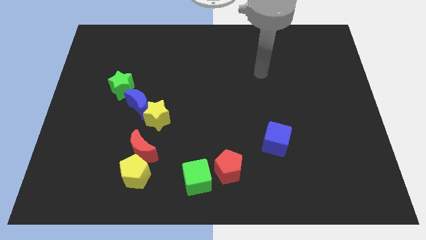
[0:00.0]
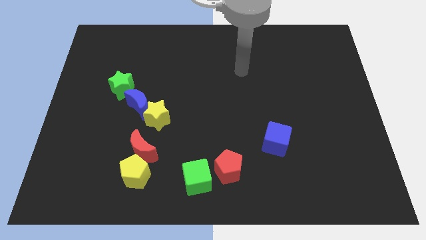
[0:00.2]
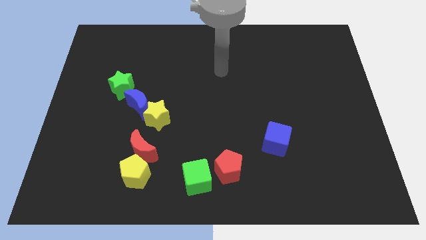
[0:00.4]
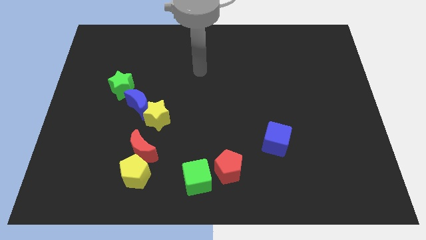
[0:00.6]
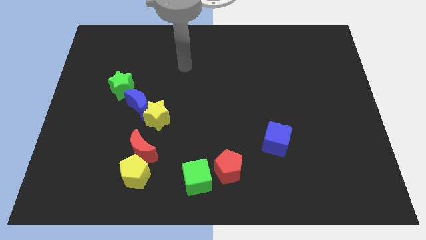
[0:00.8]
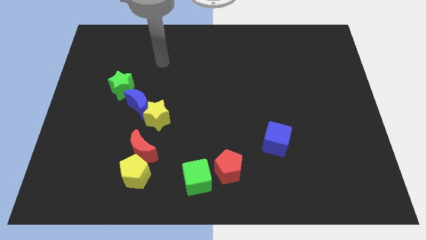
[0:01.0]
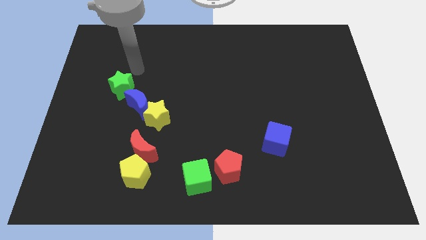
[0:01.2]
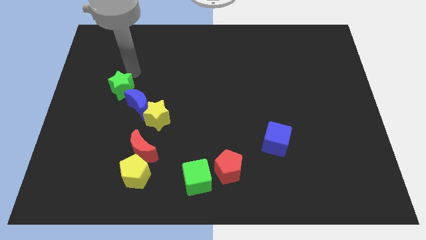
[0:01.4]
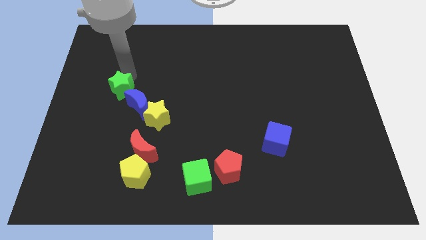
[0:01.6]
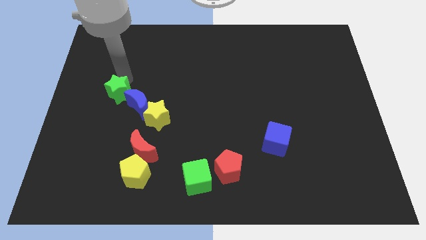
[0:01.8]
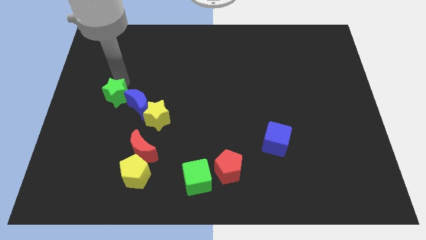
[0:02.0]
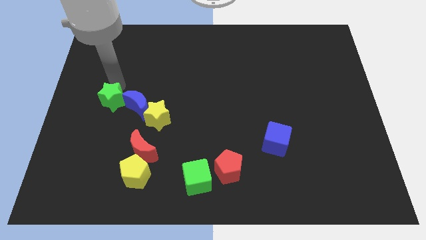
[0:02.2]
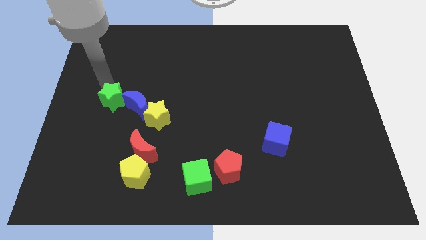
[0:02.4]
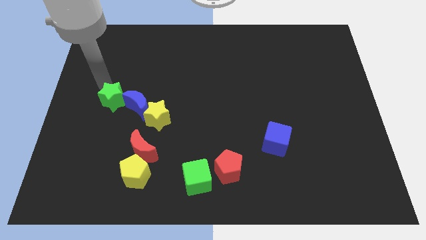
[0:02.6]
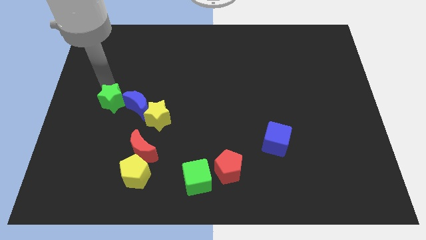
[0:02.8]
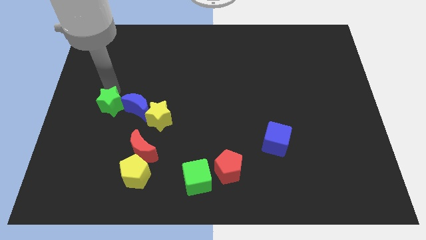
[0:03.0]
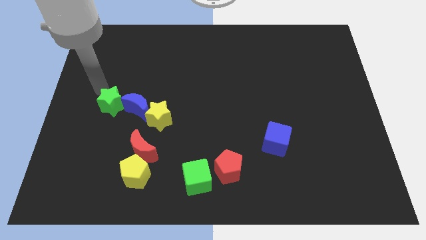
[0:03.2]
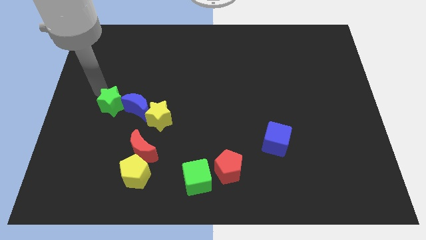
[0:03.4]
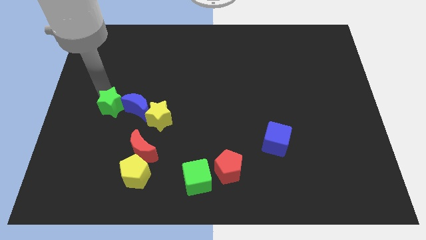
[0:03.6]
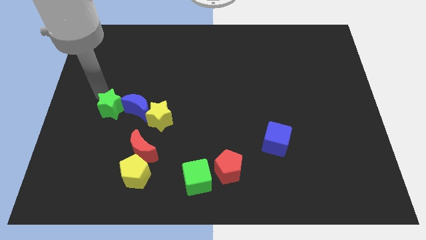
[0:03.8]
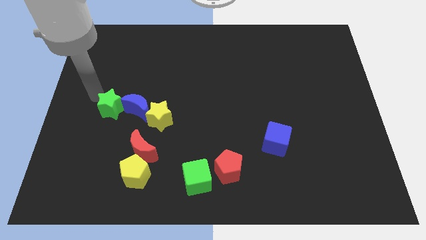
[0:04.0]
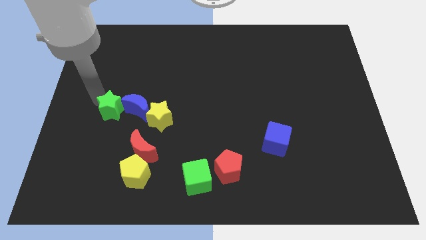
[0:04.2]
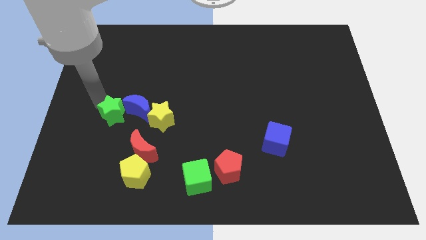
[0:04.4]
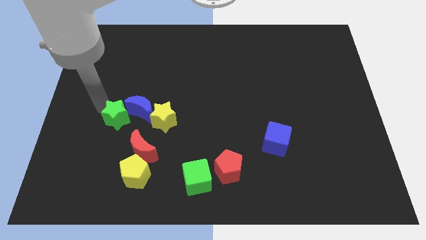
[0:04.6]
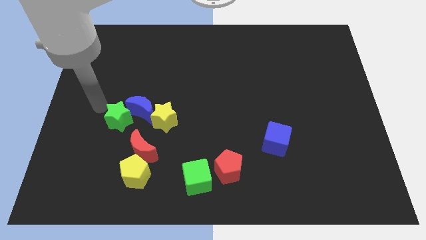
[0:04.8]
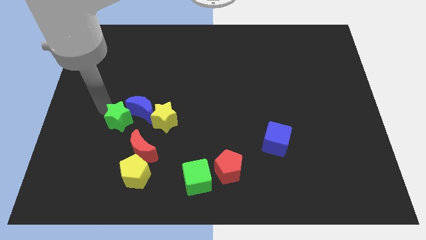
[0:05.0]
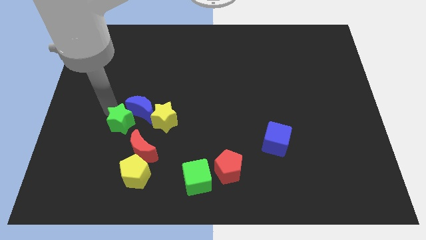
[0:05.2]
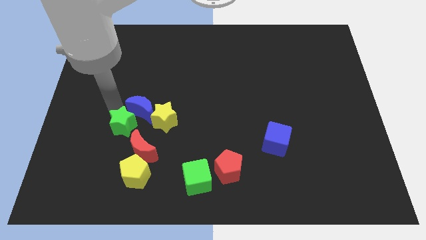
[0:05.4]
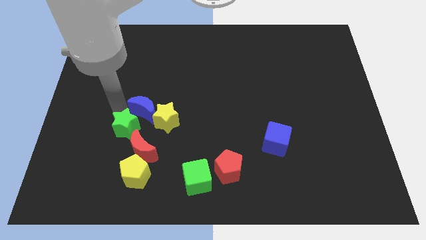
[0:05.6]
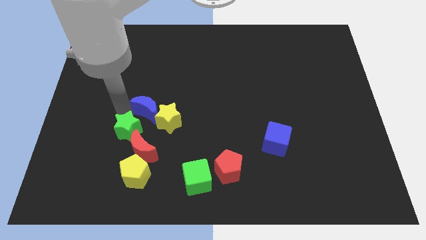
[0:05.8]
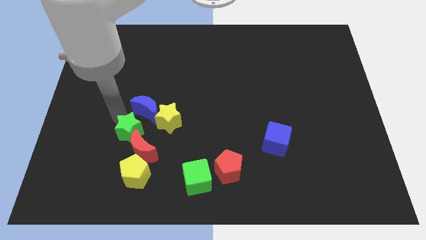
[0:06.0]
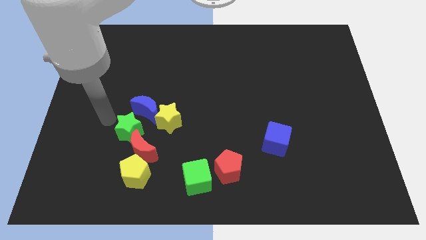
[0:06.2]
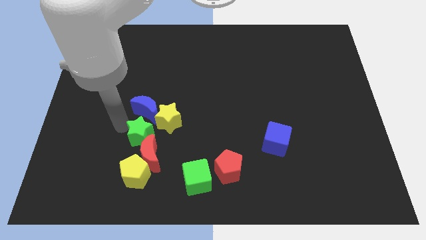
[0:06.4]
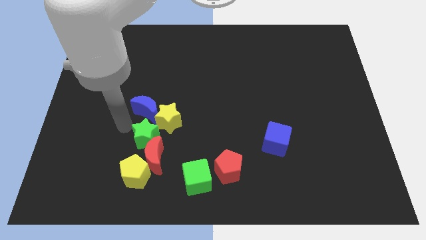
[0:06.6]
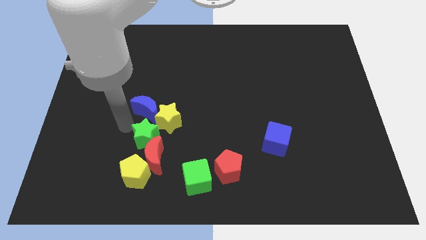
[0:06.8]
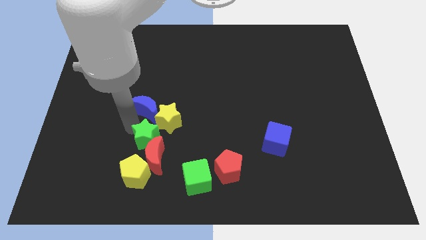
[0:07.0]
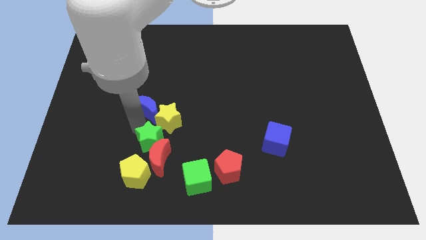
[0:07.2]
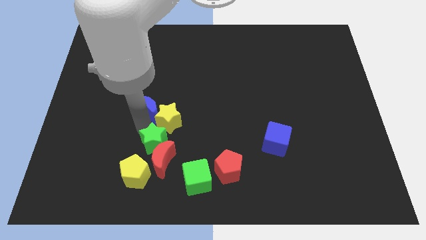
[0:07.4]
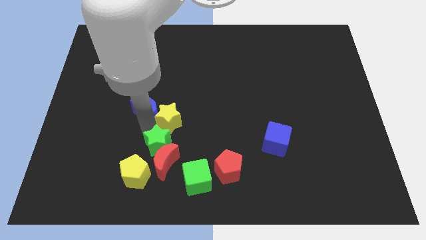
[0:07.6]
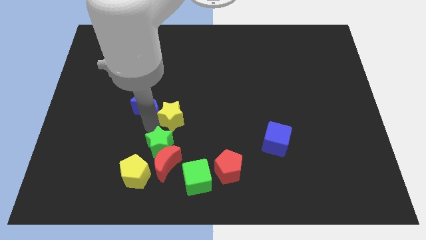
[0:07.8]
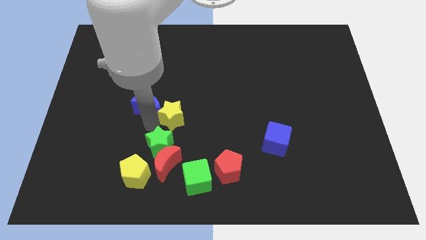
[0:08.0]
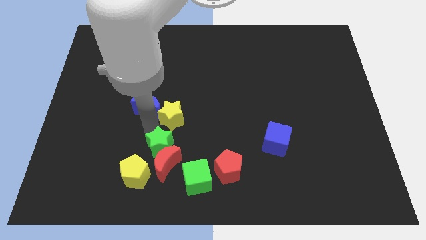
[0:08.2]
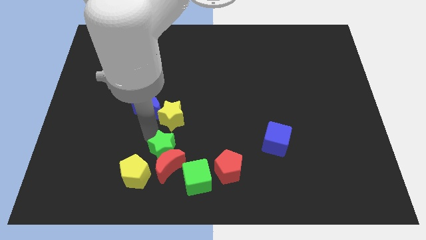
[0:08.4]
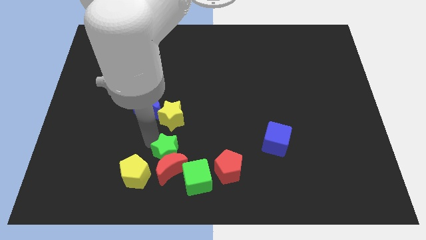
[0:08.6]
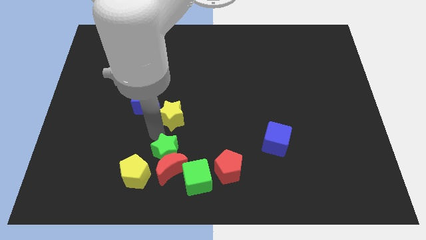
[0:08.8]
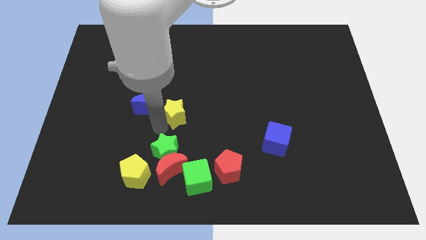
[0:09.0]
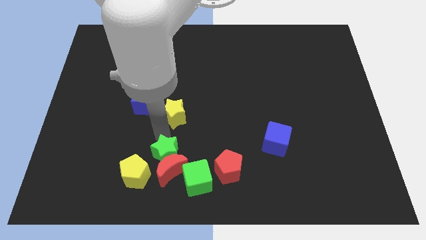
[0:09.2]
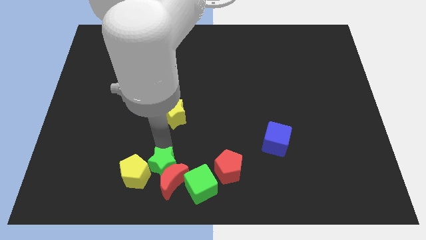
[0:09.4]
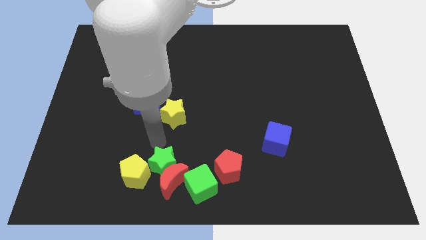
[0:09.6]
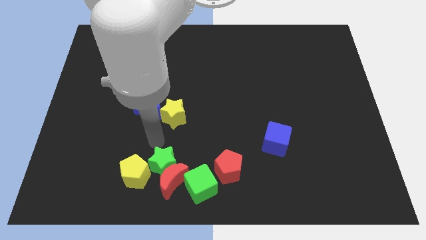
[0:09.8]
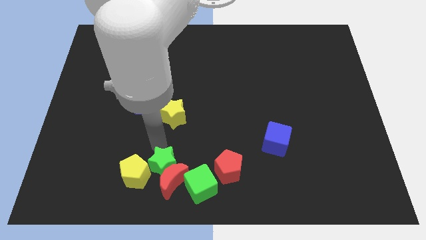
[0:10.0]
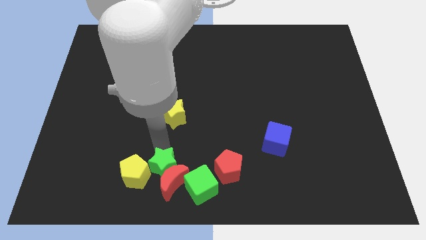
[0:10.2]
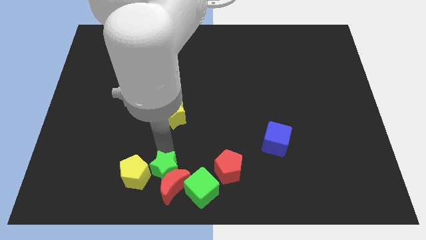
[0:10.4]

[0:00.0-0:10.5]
put the green star to the bottom

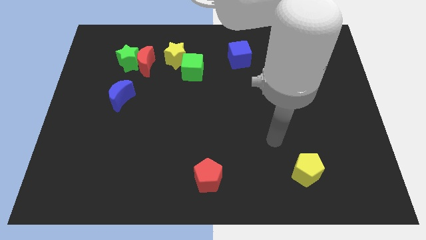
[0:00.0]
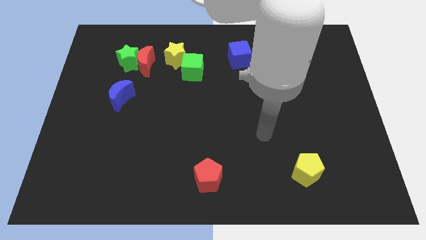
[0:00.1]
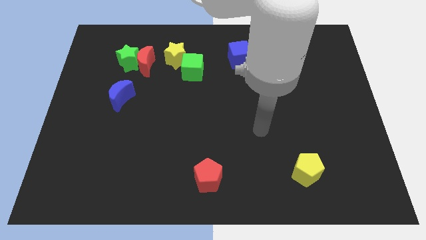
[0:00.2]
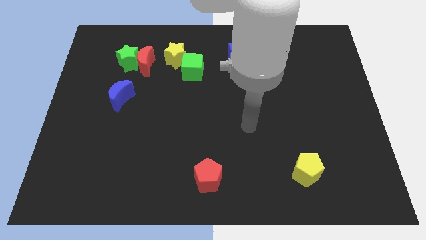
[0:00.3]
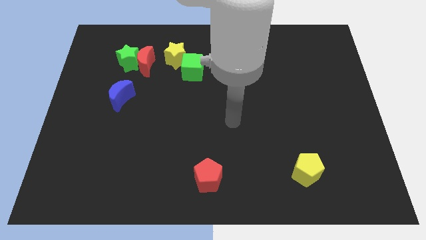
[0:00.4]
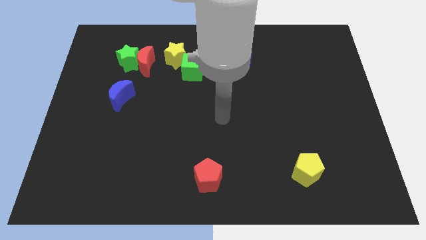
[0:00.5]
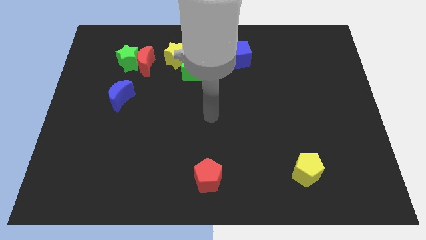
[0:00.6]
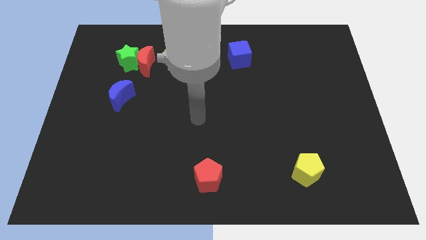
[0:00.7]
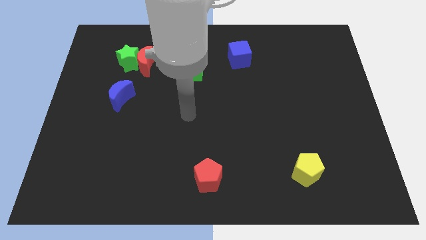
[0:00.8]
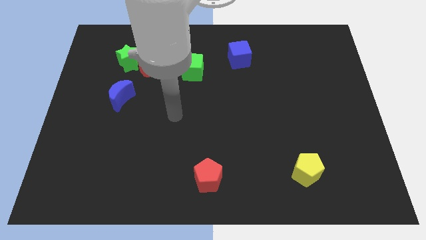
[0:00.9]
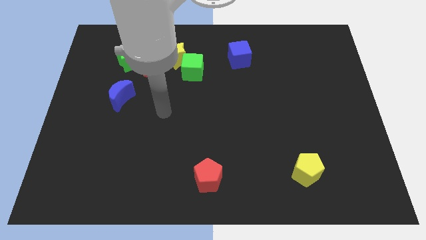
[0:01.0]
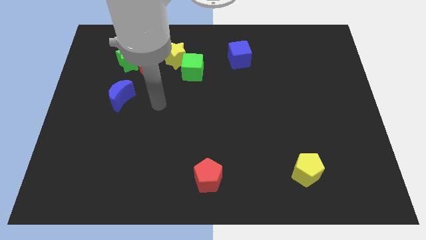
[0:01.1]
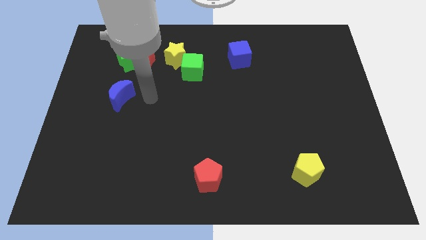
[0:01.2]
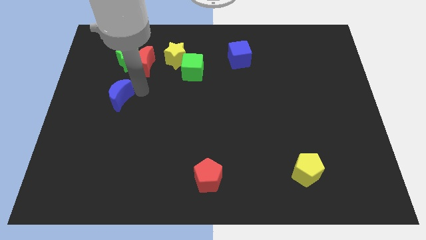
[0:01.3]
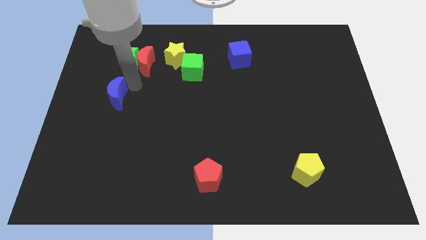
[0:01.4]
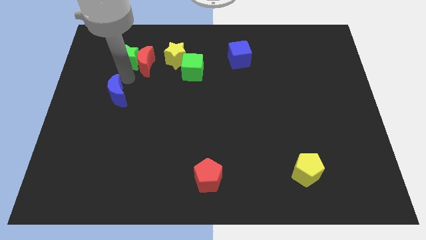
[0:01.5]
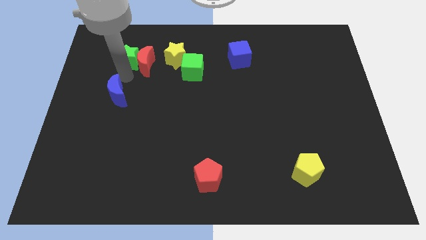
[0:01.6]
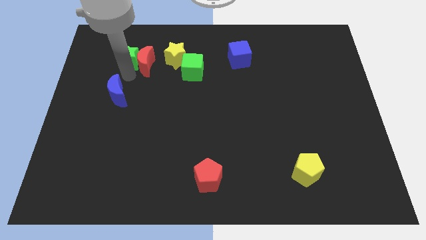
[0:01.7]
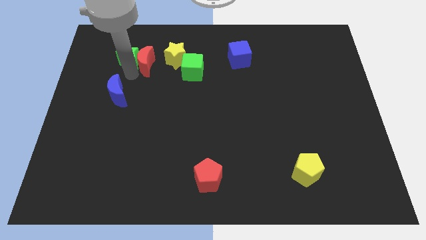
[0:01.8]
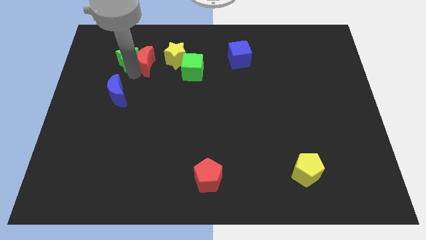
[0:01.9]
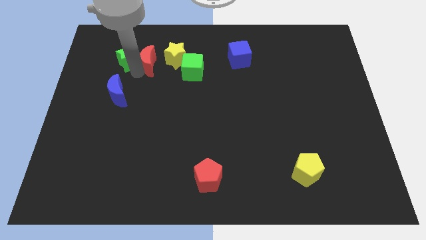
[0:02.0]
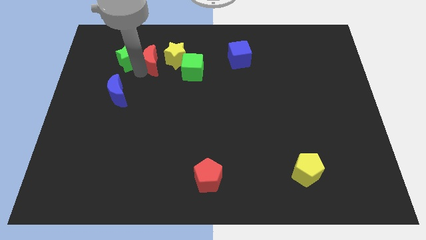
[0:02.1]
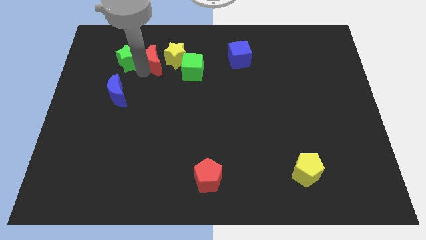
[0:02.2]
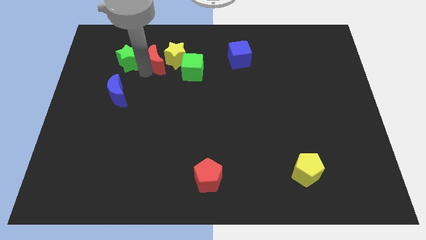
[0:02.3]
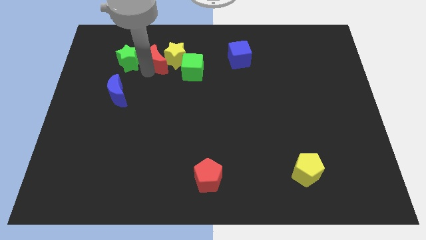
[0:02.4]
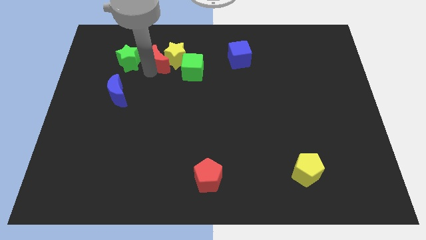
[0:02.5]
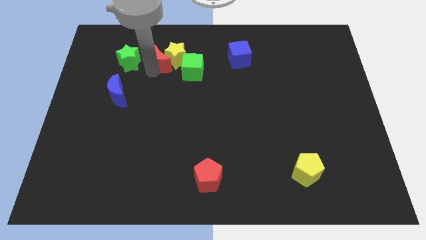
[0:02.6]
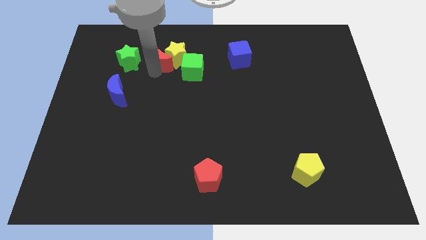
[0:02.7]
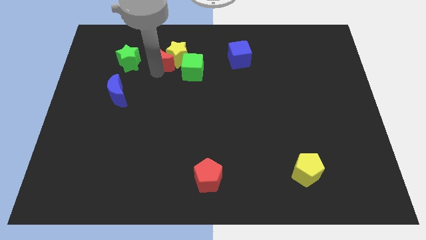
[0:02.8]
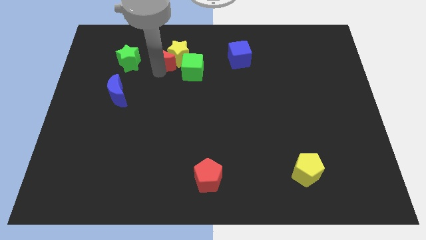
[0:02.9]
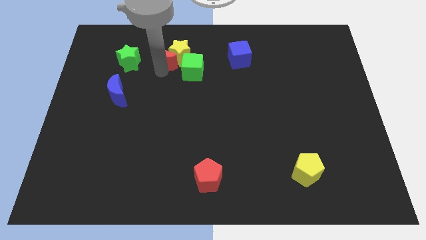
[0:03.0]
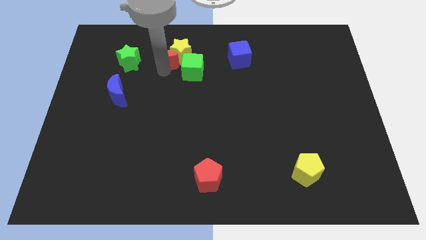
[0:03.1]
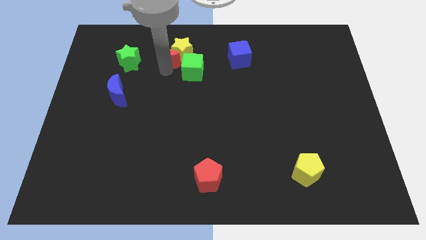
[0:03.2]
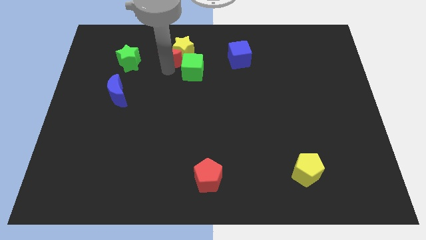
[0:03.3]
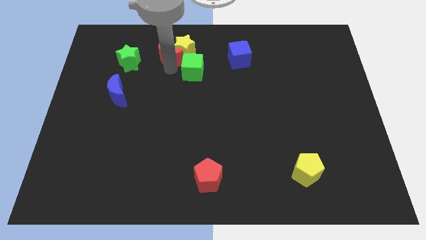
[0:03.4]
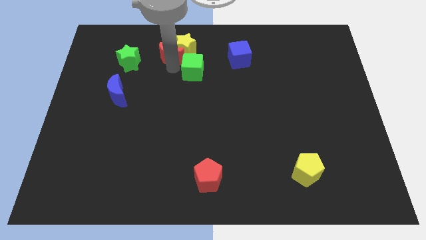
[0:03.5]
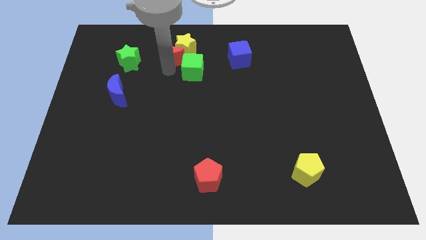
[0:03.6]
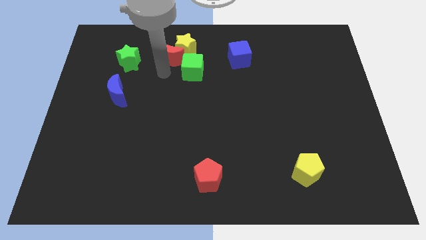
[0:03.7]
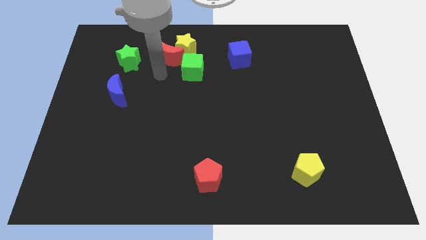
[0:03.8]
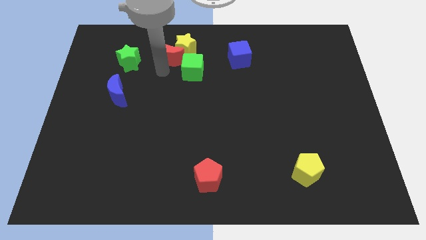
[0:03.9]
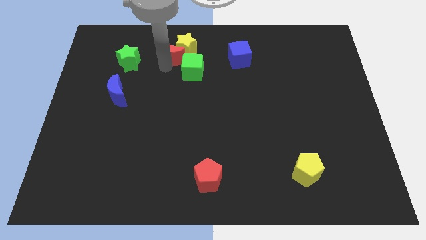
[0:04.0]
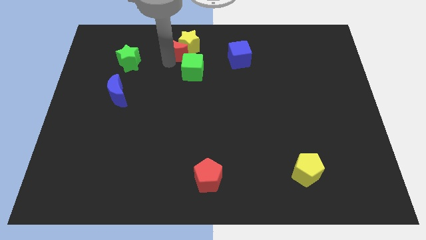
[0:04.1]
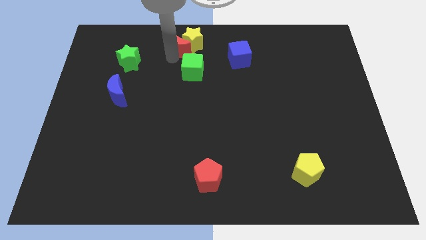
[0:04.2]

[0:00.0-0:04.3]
move the red moon to the top
